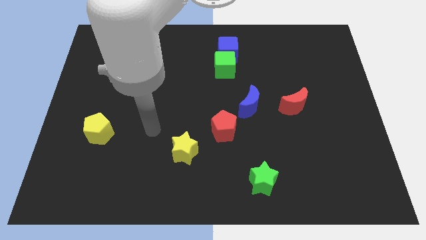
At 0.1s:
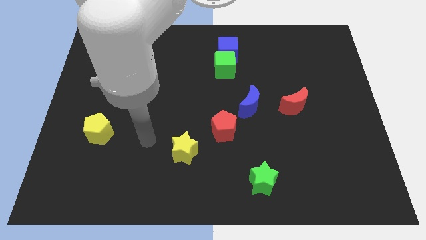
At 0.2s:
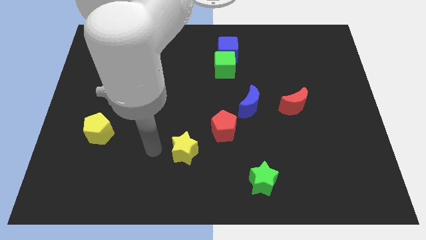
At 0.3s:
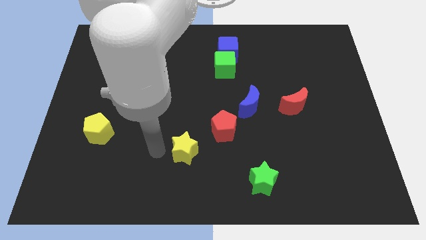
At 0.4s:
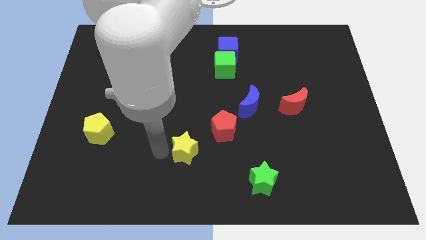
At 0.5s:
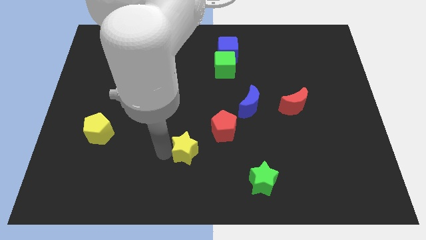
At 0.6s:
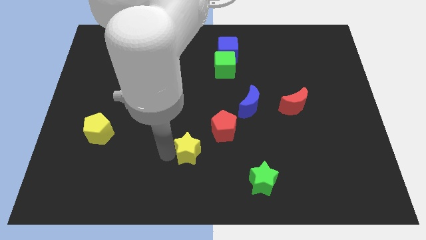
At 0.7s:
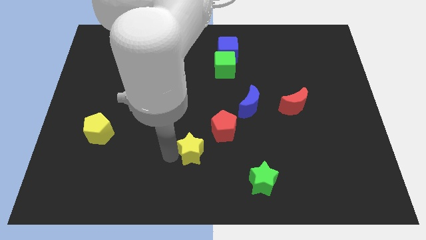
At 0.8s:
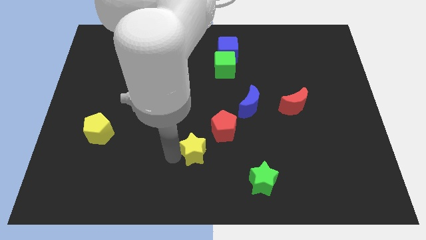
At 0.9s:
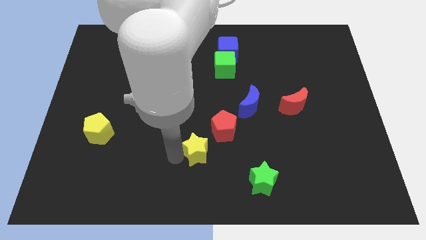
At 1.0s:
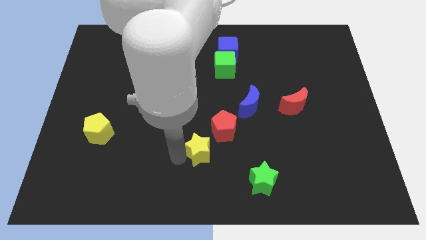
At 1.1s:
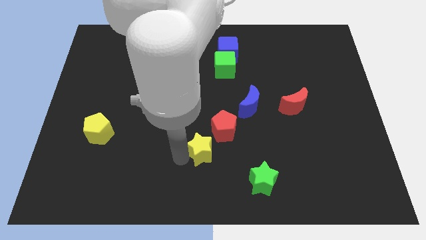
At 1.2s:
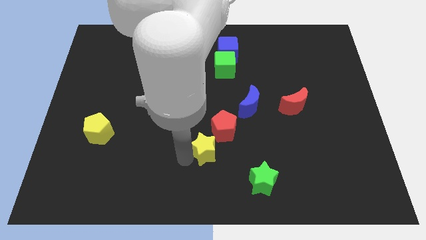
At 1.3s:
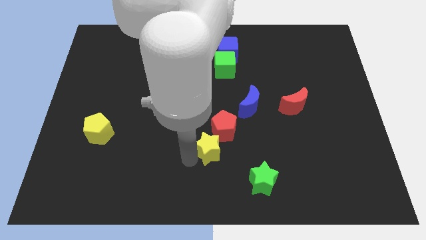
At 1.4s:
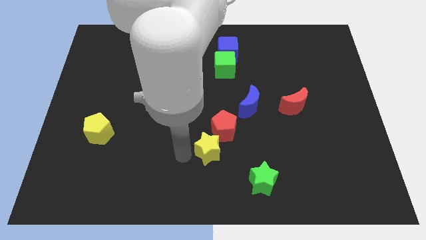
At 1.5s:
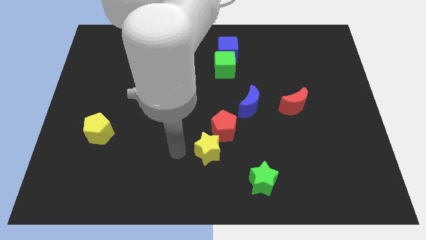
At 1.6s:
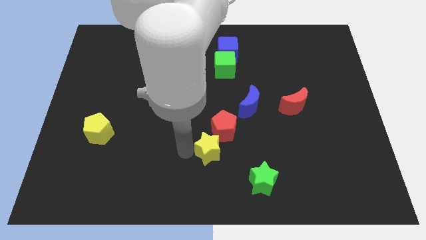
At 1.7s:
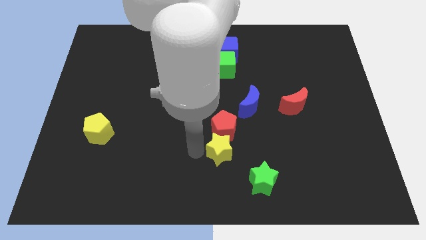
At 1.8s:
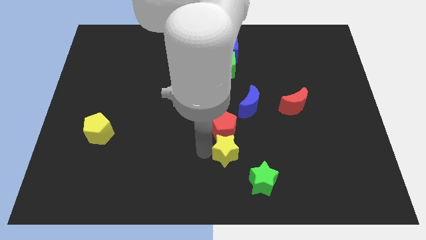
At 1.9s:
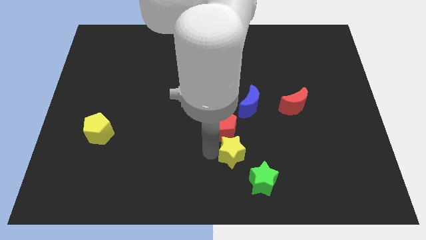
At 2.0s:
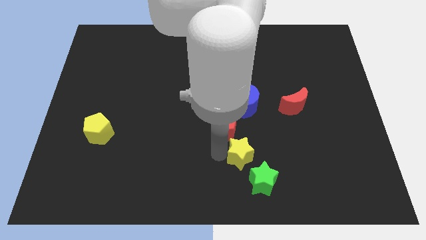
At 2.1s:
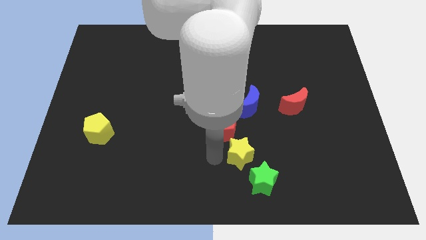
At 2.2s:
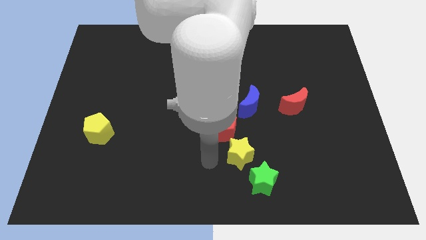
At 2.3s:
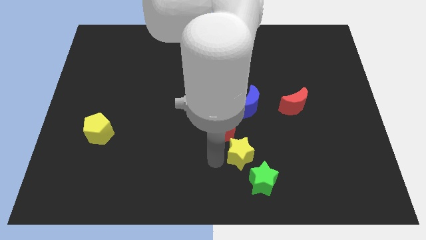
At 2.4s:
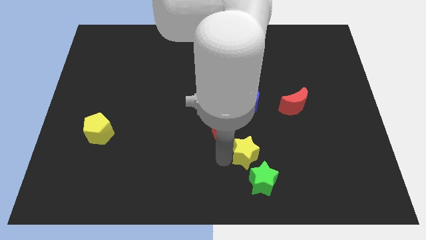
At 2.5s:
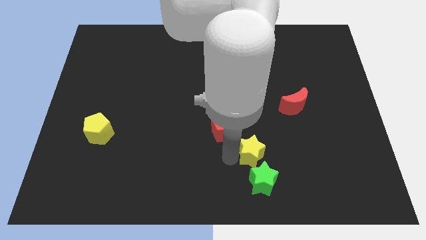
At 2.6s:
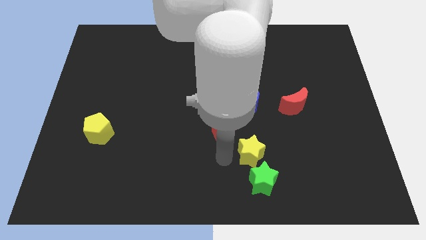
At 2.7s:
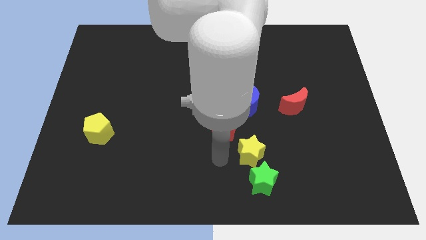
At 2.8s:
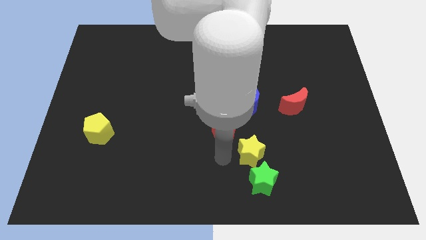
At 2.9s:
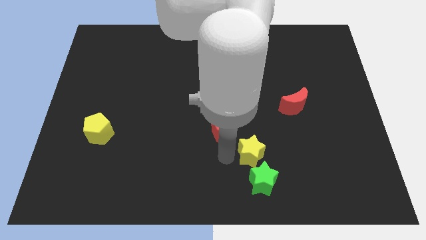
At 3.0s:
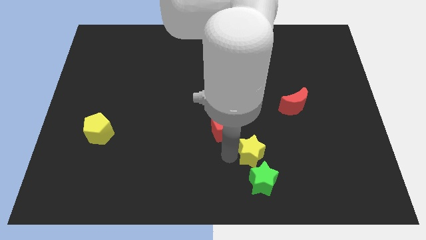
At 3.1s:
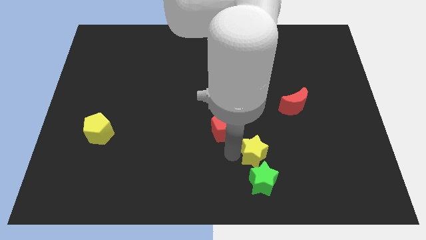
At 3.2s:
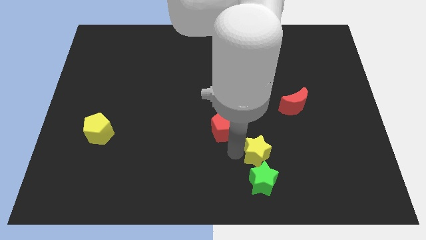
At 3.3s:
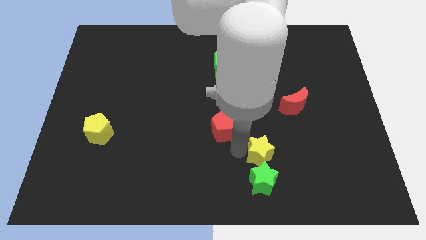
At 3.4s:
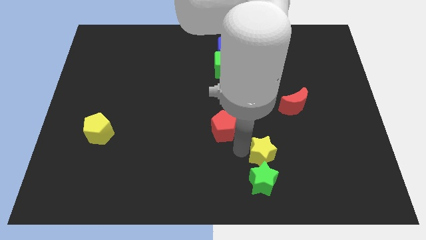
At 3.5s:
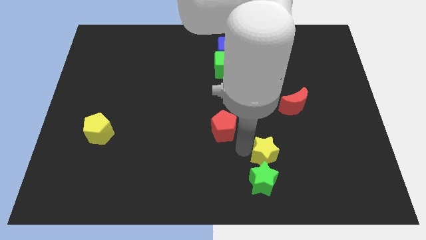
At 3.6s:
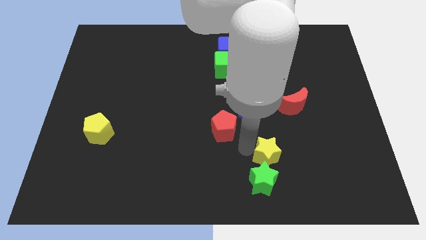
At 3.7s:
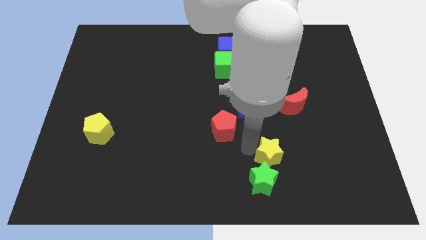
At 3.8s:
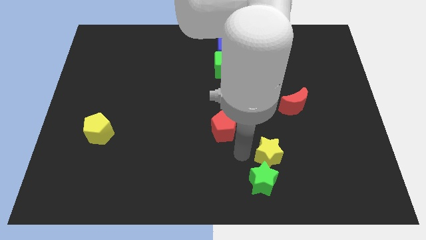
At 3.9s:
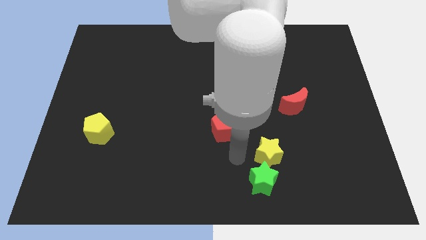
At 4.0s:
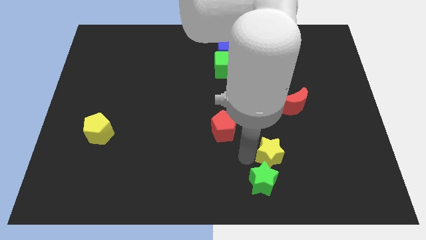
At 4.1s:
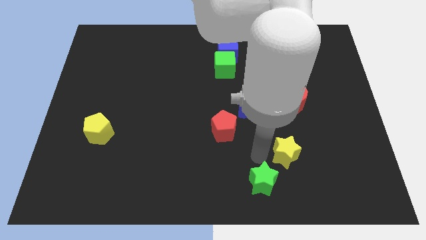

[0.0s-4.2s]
slide the yellow star to the right

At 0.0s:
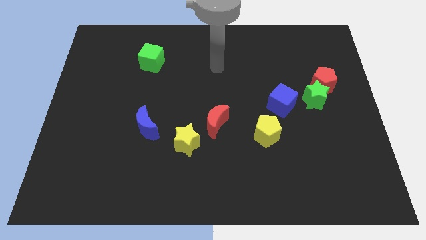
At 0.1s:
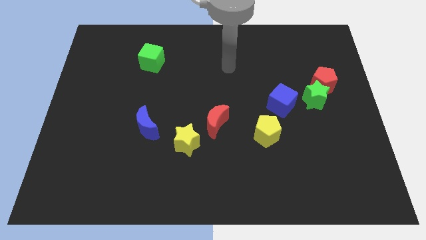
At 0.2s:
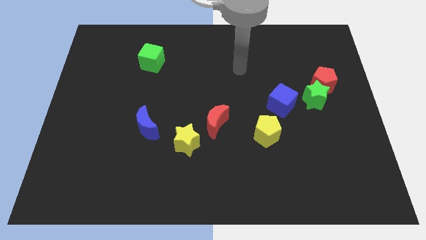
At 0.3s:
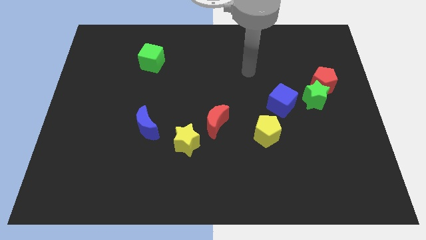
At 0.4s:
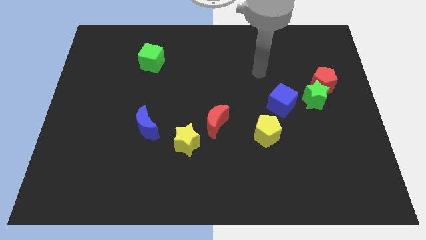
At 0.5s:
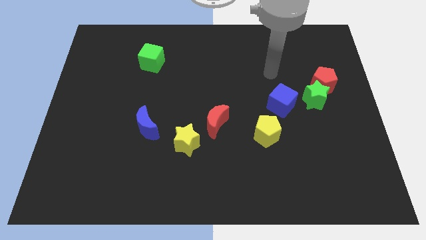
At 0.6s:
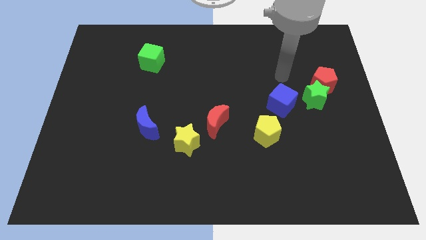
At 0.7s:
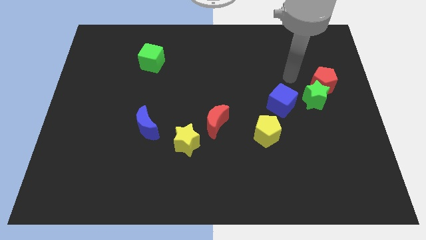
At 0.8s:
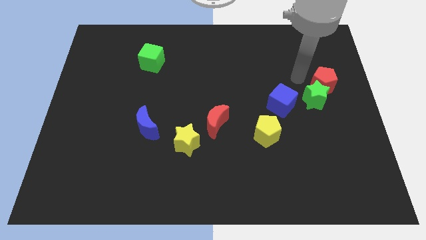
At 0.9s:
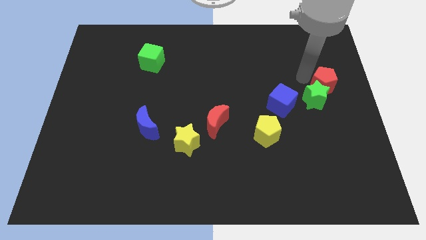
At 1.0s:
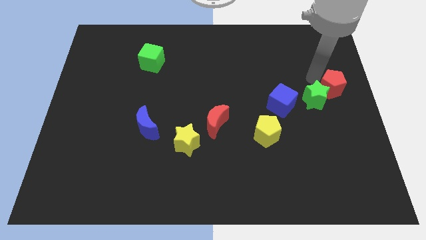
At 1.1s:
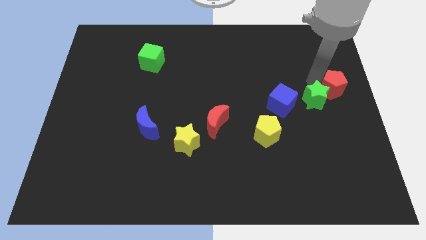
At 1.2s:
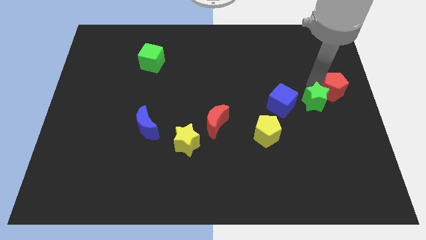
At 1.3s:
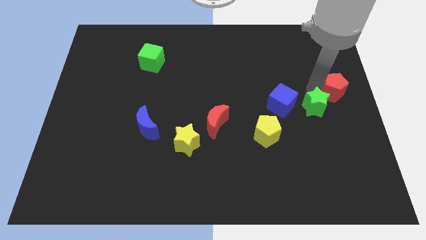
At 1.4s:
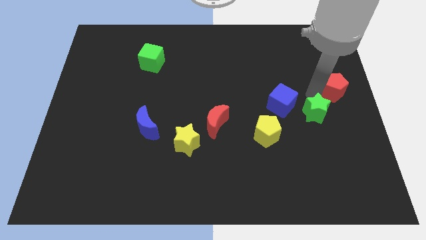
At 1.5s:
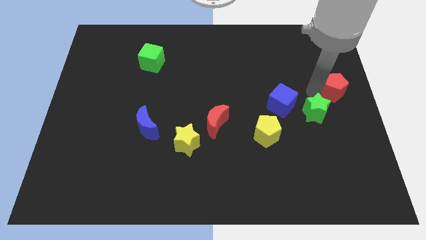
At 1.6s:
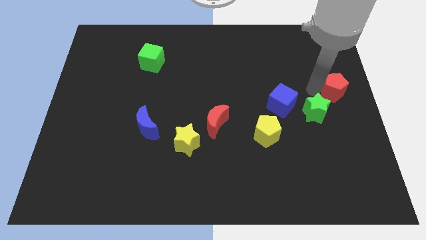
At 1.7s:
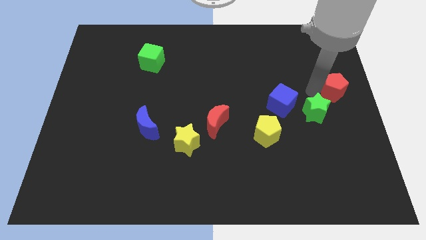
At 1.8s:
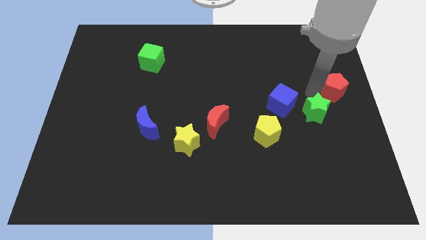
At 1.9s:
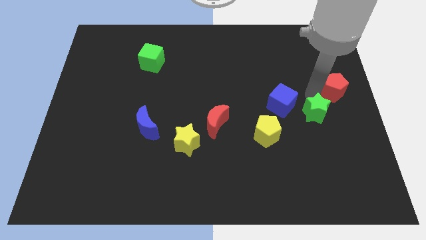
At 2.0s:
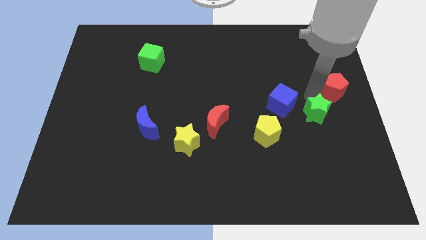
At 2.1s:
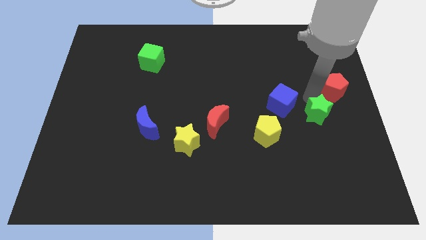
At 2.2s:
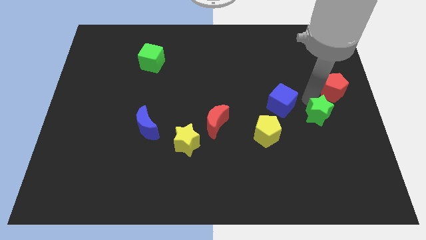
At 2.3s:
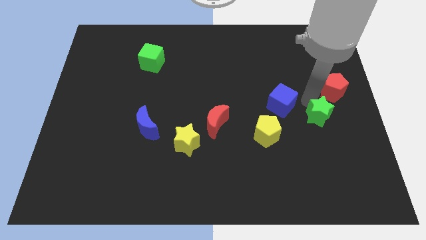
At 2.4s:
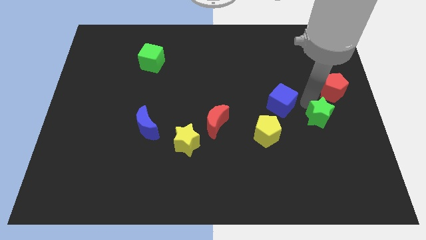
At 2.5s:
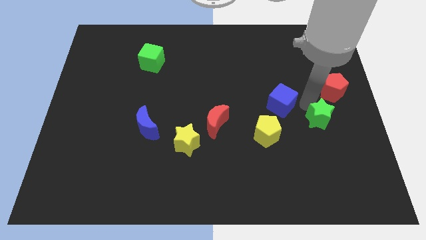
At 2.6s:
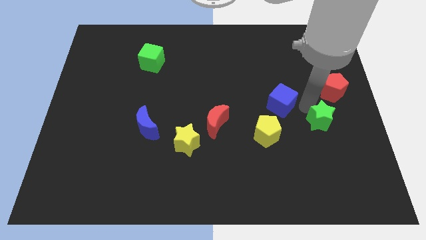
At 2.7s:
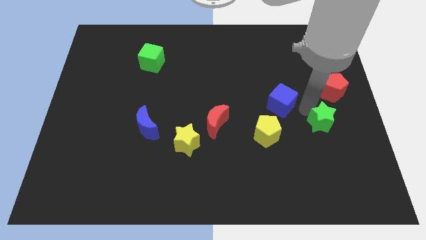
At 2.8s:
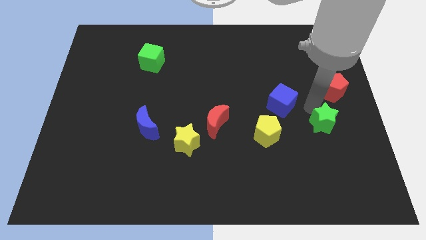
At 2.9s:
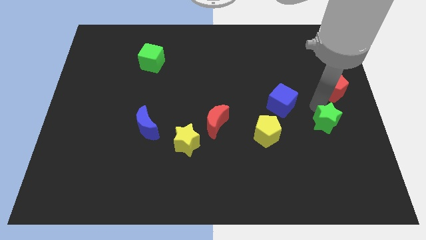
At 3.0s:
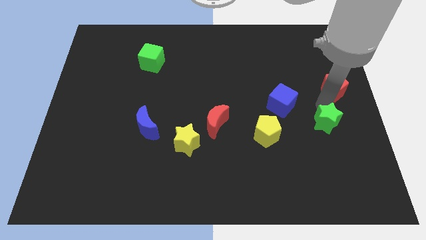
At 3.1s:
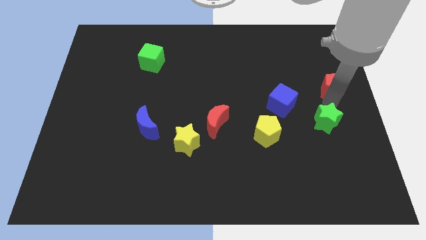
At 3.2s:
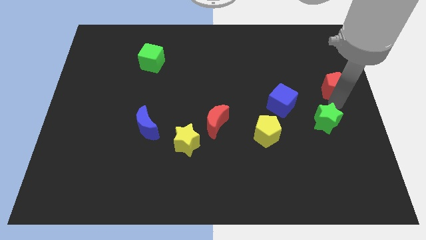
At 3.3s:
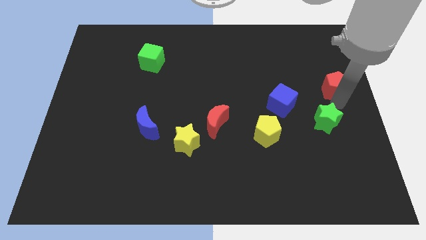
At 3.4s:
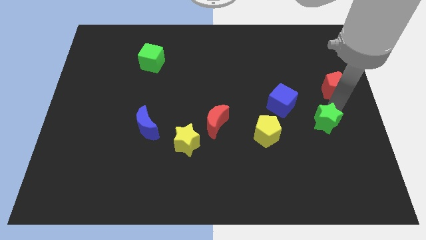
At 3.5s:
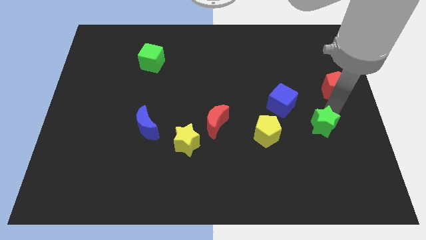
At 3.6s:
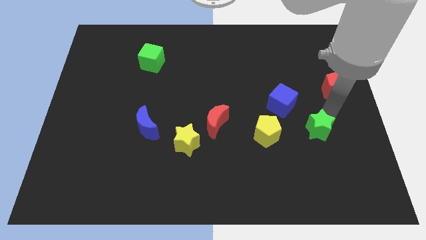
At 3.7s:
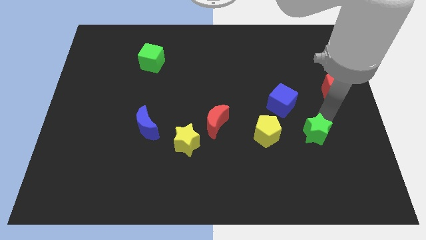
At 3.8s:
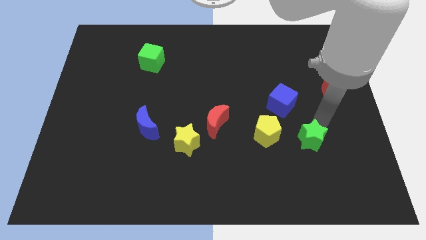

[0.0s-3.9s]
move the green star somewhat diagonally down and left

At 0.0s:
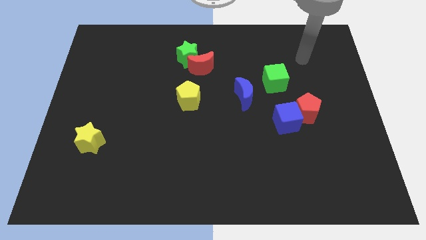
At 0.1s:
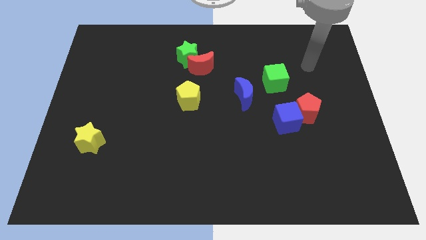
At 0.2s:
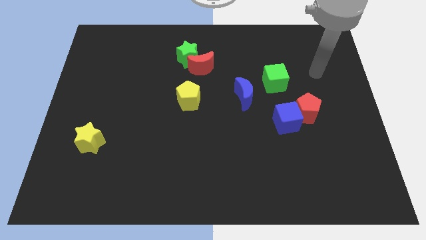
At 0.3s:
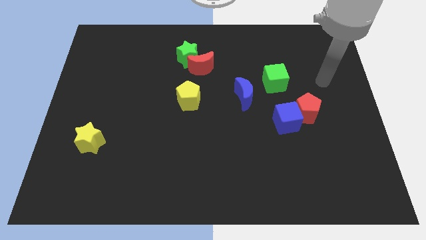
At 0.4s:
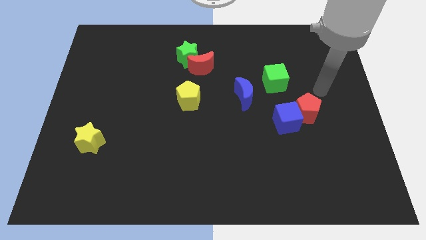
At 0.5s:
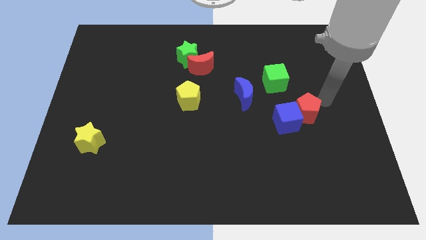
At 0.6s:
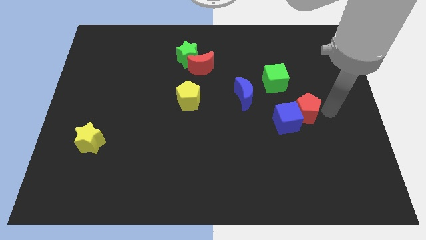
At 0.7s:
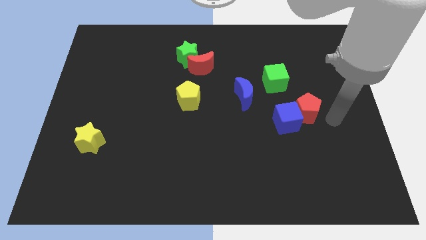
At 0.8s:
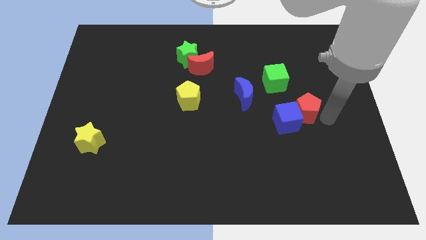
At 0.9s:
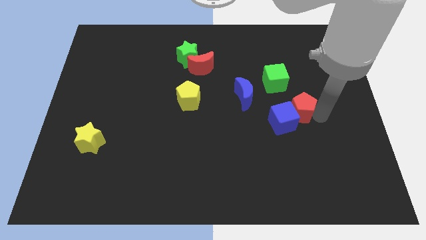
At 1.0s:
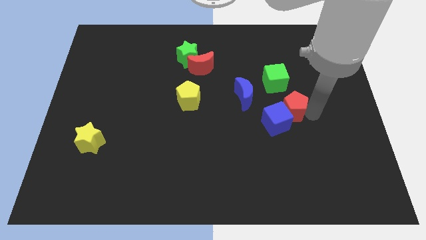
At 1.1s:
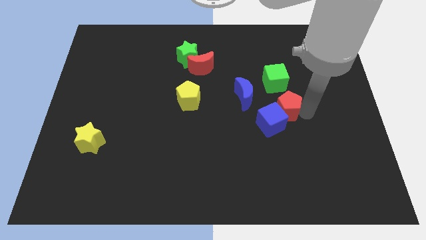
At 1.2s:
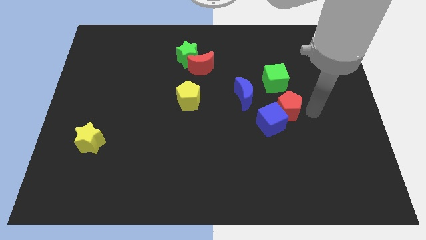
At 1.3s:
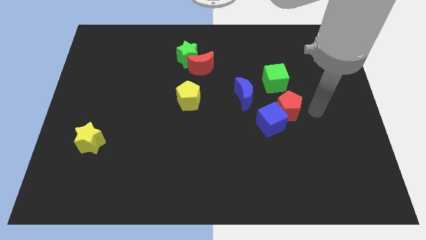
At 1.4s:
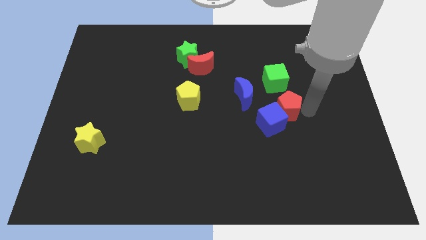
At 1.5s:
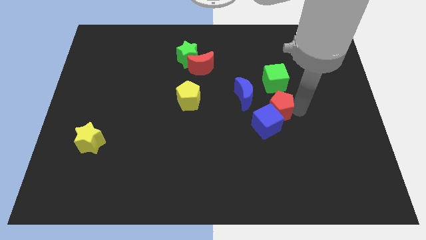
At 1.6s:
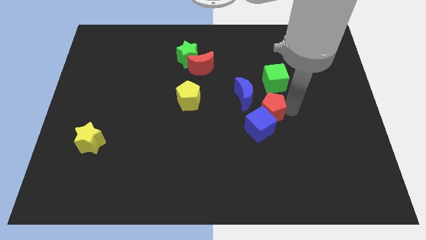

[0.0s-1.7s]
move the red pentagon to the left somewhat
